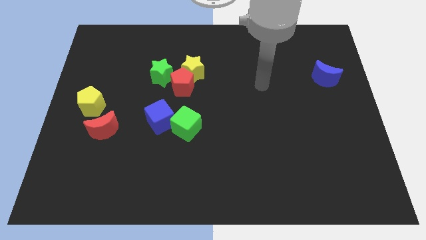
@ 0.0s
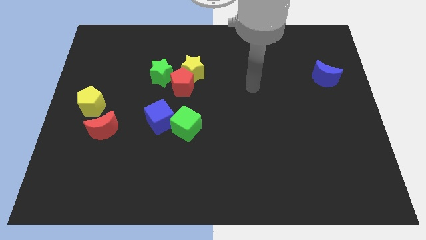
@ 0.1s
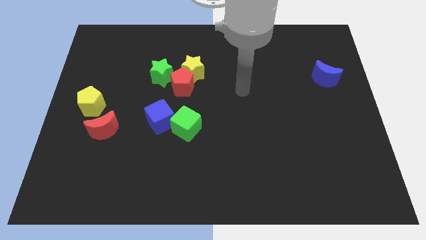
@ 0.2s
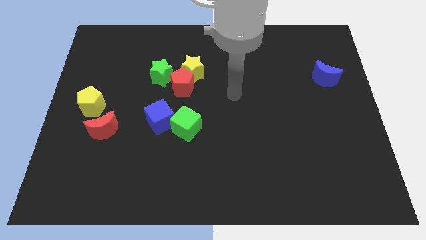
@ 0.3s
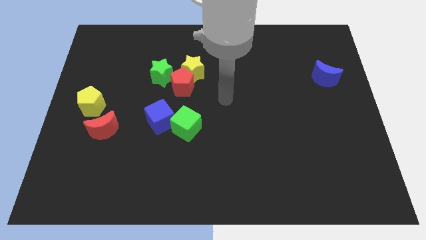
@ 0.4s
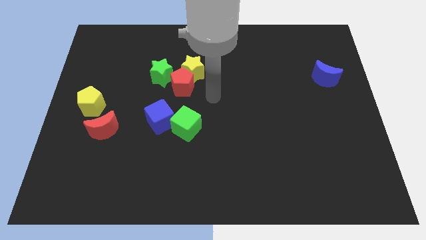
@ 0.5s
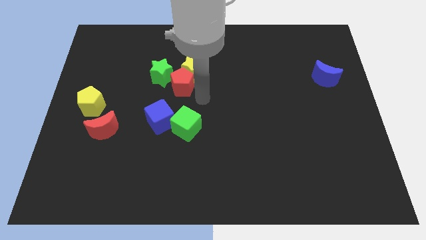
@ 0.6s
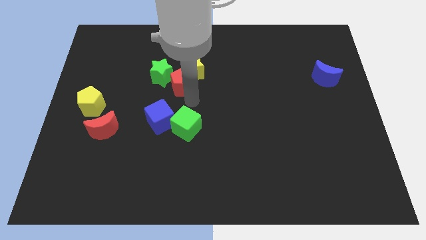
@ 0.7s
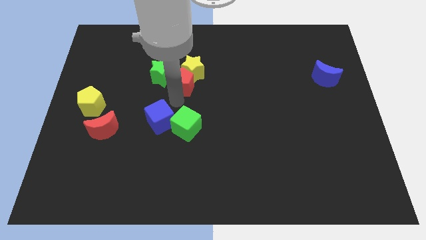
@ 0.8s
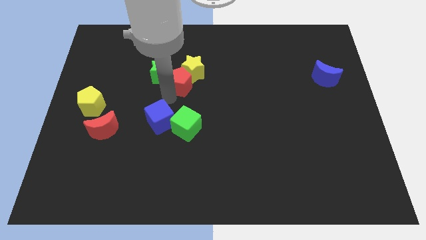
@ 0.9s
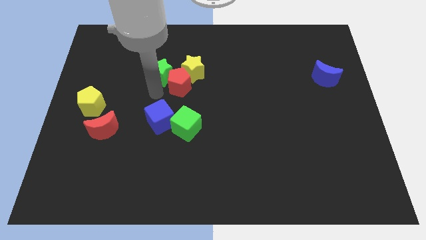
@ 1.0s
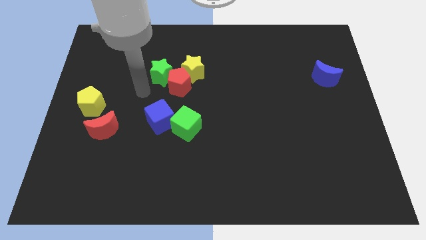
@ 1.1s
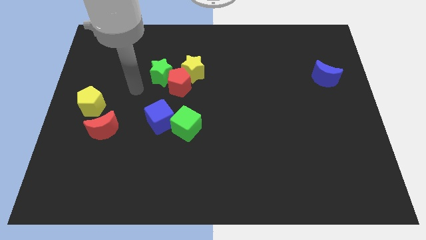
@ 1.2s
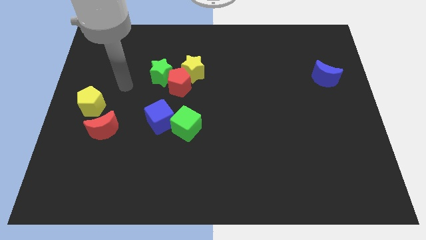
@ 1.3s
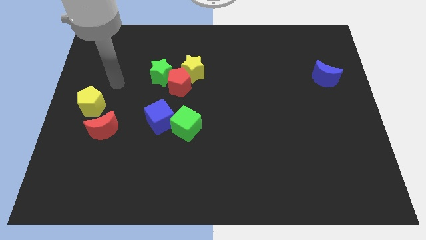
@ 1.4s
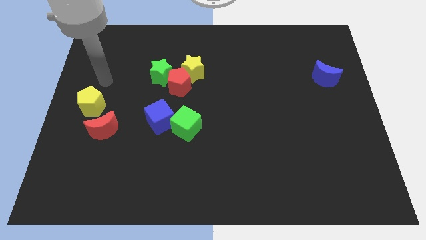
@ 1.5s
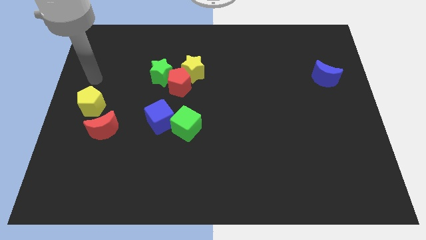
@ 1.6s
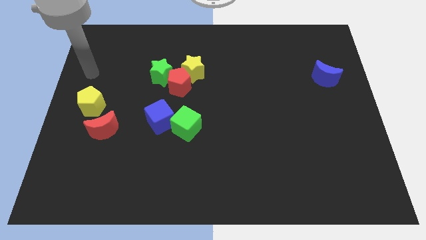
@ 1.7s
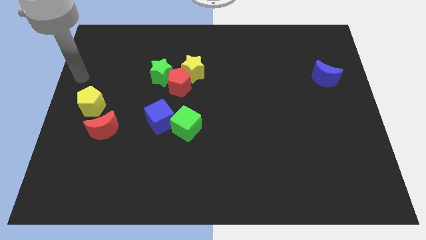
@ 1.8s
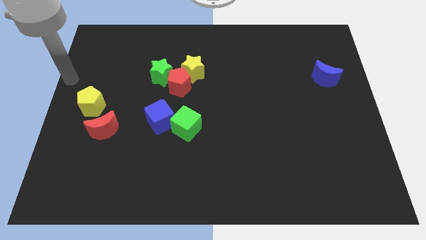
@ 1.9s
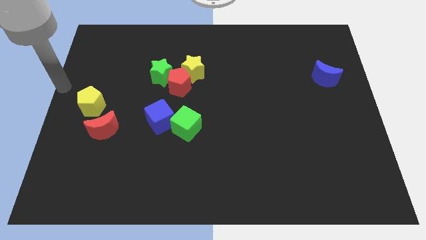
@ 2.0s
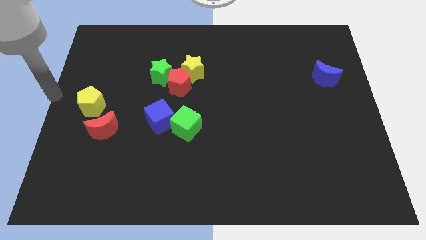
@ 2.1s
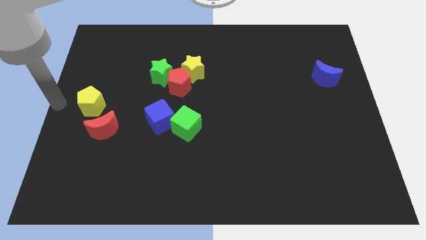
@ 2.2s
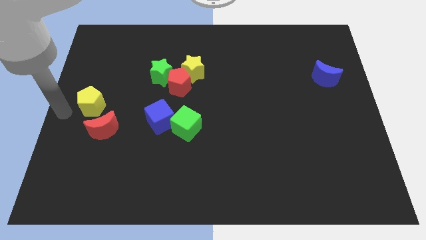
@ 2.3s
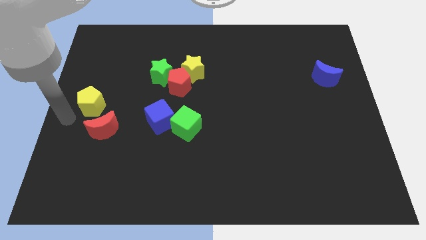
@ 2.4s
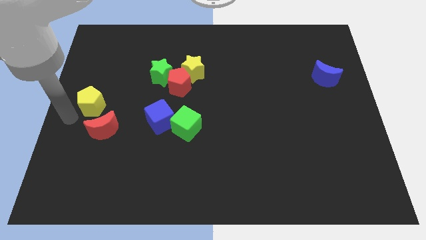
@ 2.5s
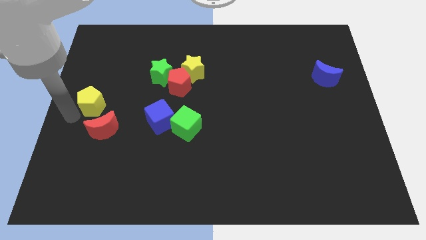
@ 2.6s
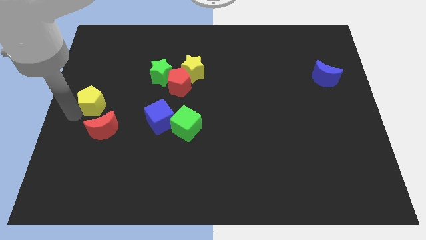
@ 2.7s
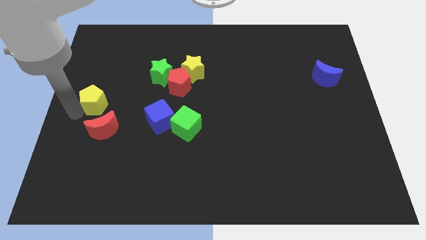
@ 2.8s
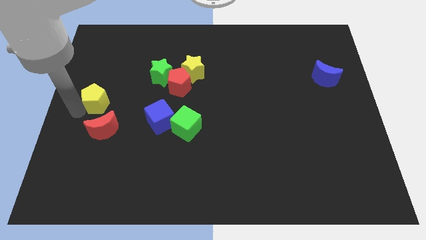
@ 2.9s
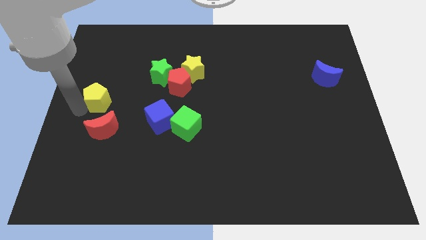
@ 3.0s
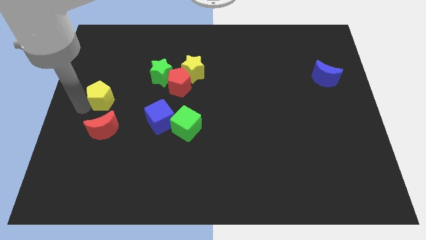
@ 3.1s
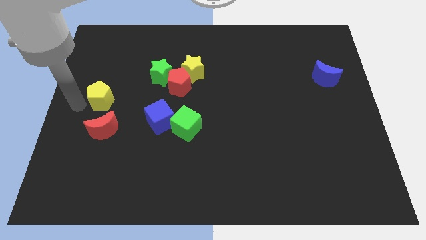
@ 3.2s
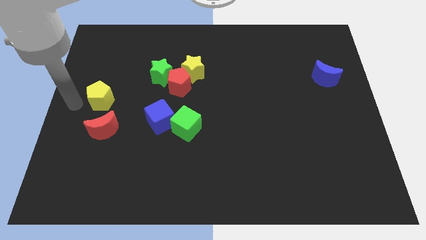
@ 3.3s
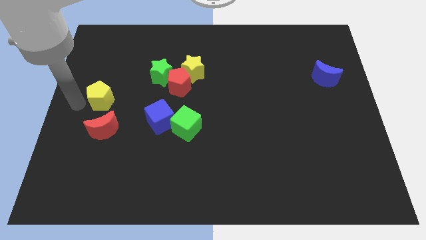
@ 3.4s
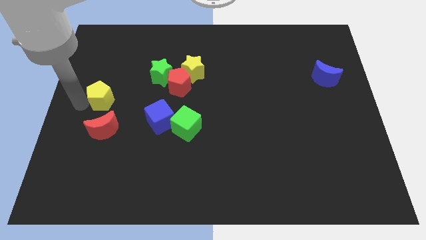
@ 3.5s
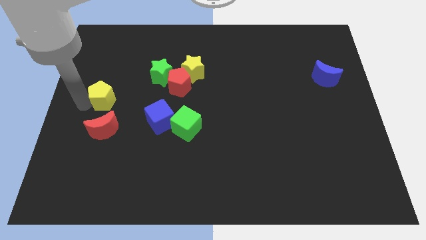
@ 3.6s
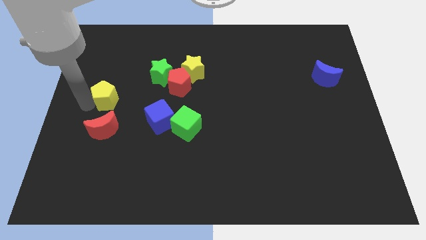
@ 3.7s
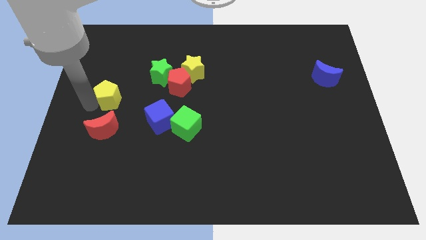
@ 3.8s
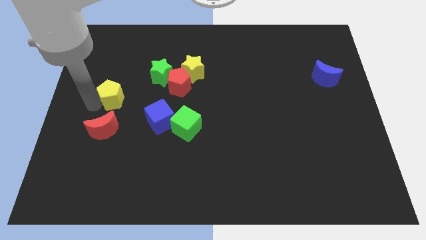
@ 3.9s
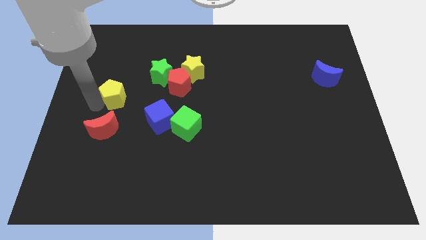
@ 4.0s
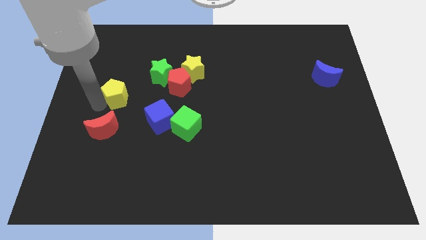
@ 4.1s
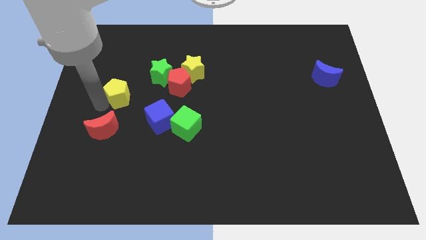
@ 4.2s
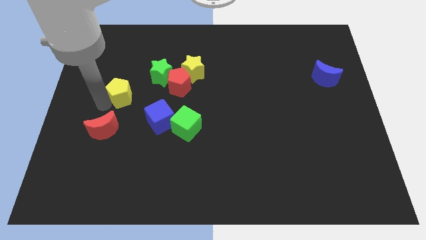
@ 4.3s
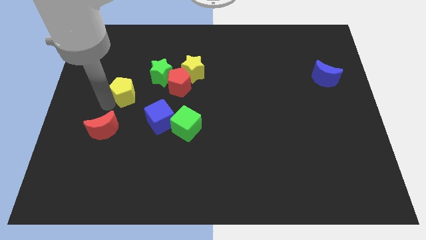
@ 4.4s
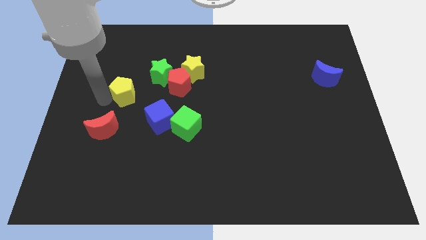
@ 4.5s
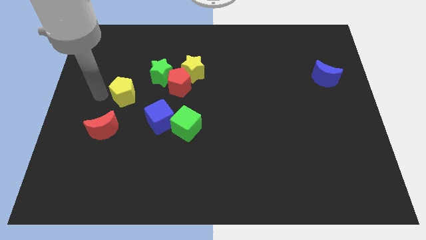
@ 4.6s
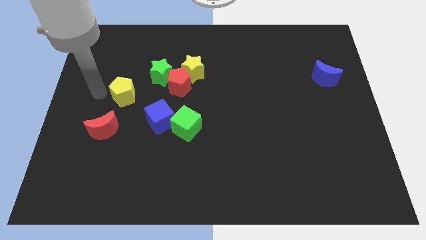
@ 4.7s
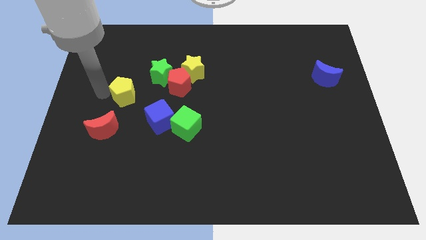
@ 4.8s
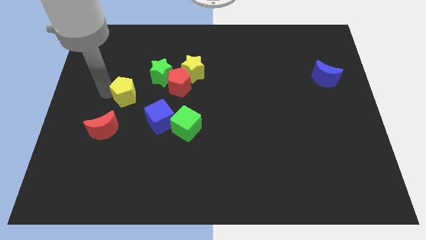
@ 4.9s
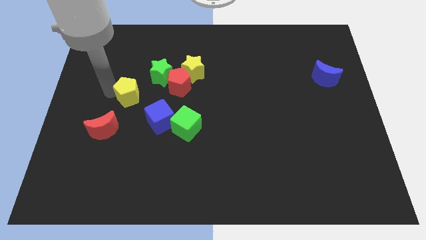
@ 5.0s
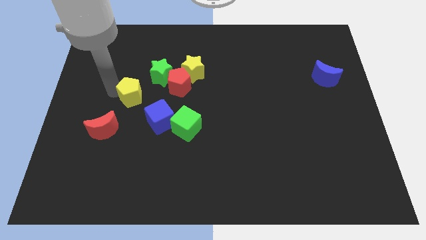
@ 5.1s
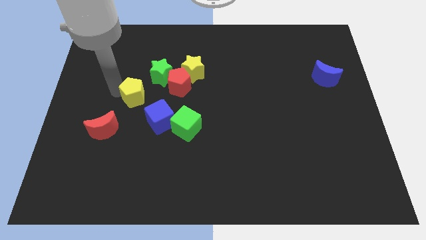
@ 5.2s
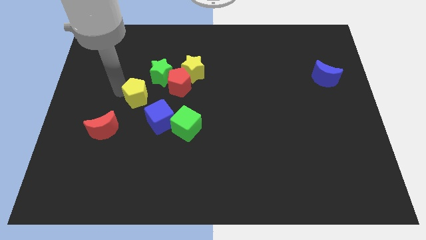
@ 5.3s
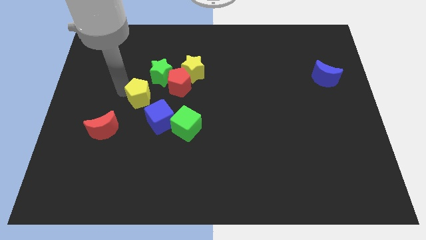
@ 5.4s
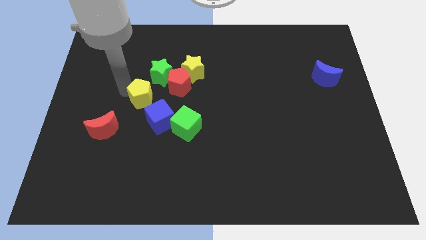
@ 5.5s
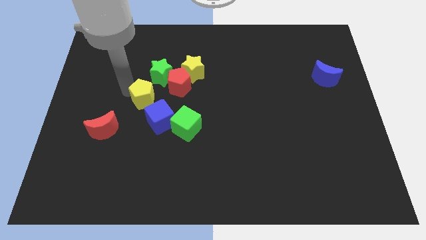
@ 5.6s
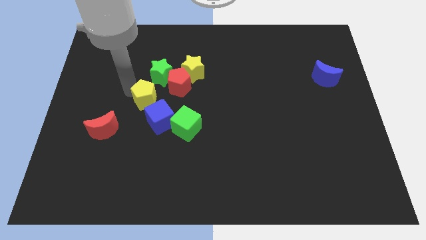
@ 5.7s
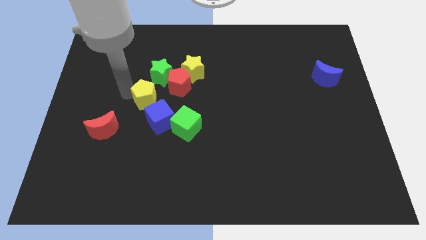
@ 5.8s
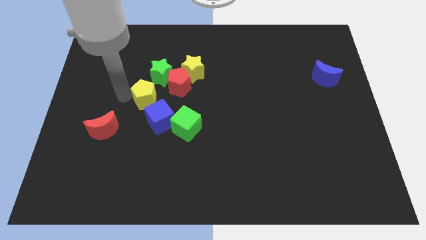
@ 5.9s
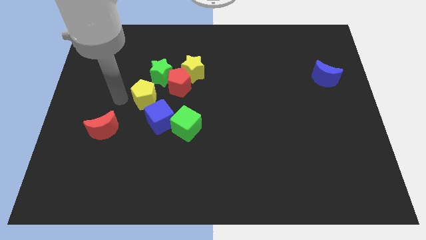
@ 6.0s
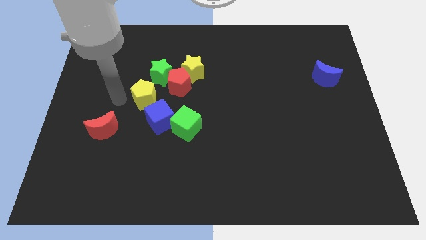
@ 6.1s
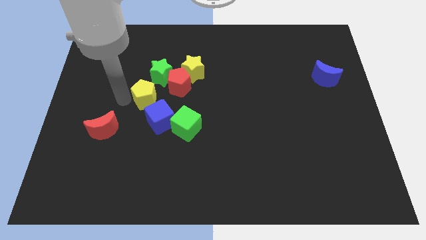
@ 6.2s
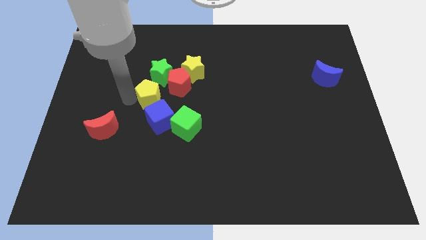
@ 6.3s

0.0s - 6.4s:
put the yellow pentagon to the top left side of the green cube

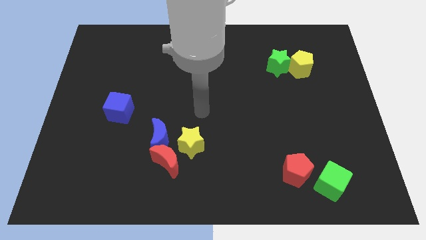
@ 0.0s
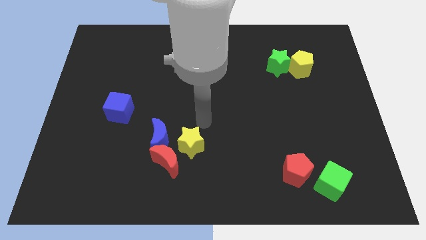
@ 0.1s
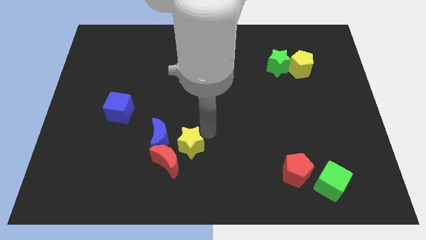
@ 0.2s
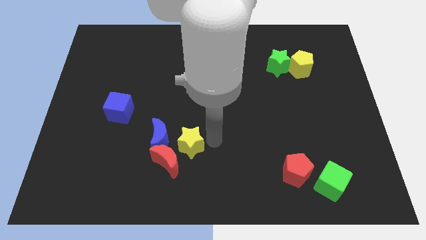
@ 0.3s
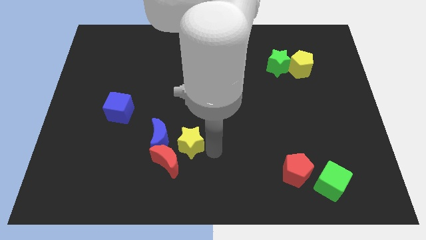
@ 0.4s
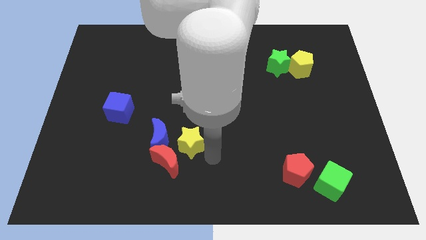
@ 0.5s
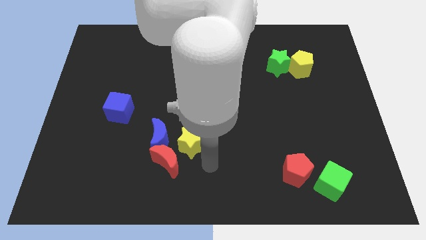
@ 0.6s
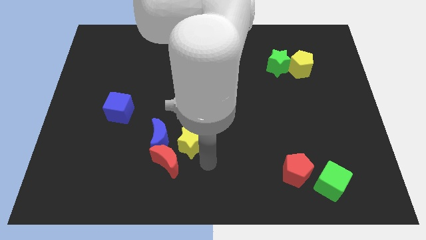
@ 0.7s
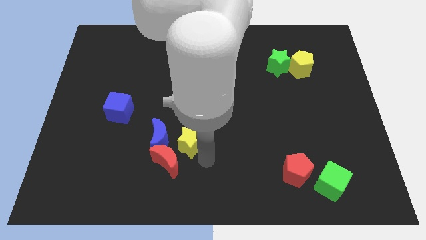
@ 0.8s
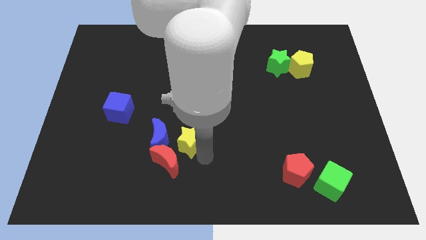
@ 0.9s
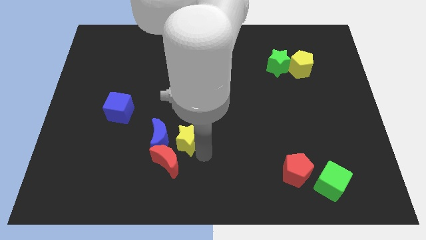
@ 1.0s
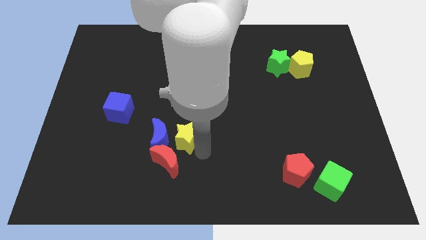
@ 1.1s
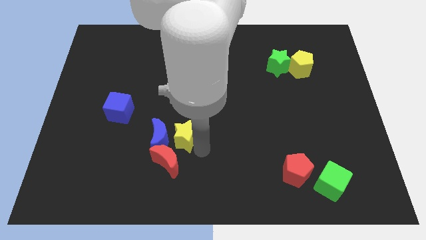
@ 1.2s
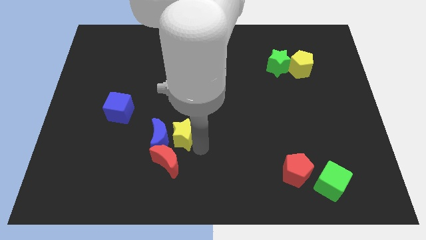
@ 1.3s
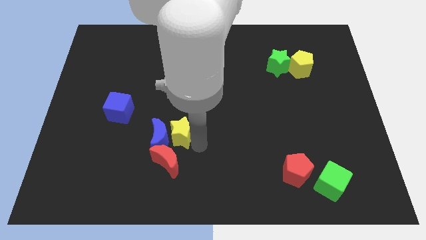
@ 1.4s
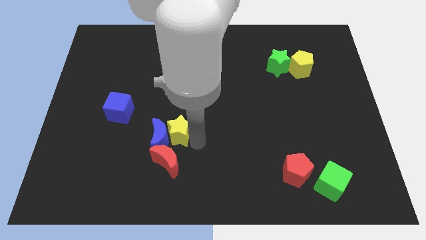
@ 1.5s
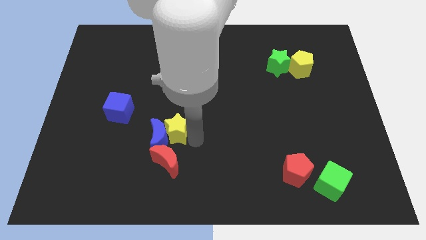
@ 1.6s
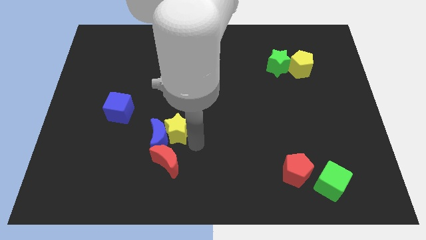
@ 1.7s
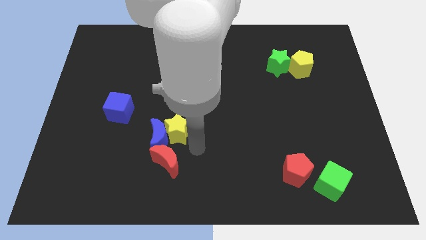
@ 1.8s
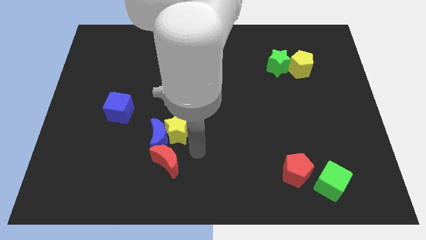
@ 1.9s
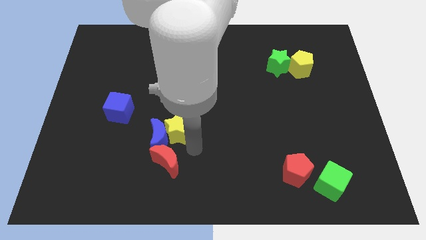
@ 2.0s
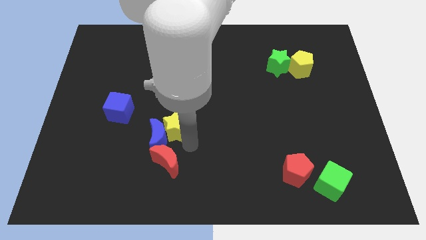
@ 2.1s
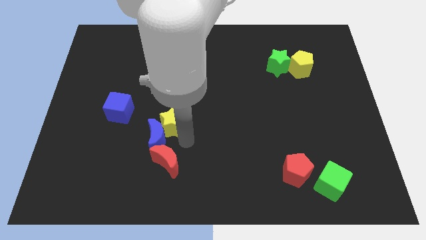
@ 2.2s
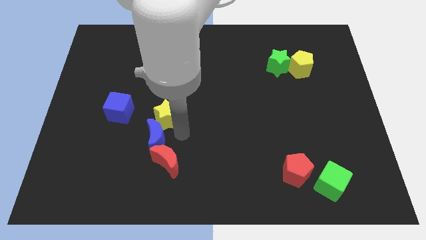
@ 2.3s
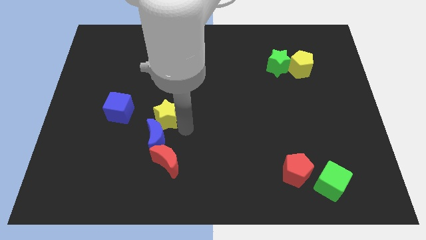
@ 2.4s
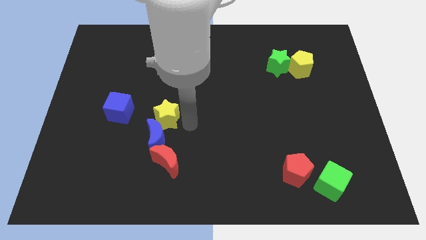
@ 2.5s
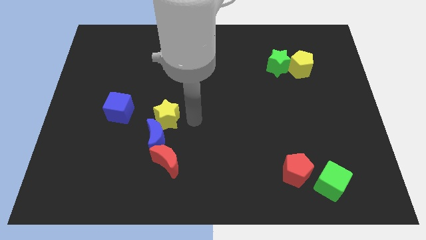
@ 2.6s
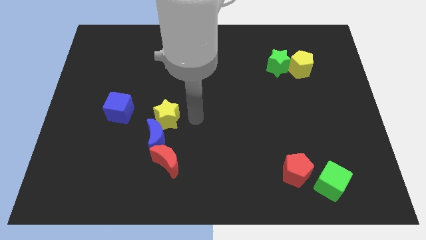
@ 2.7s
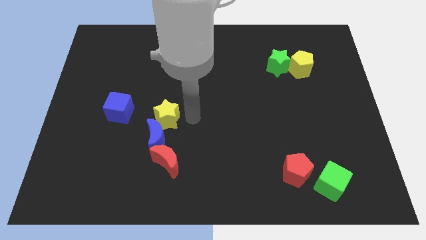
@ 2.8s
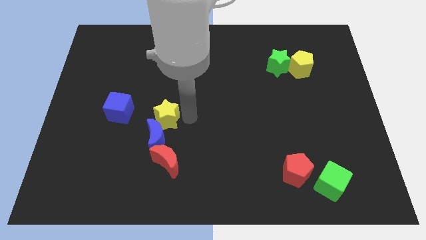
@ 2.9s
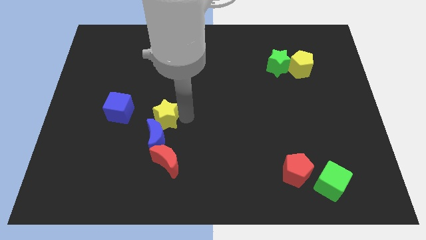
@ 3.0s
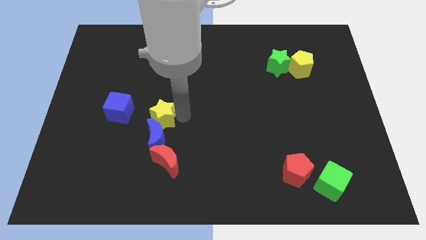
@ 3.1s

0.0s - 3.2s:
move the yellow star to the top left side of the blue moon
